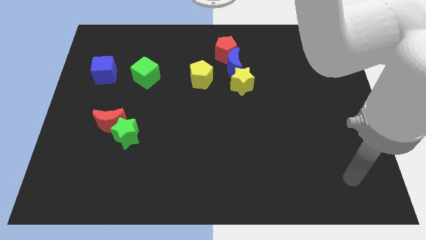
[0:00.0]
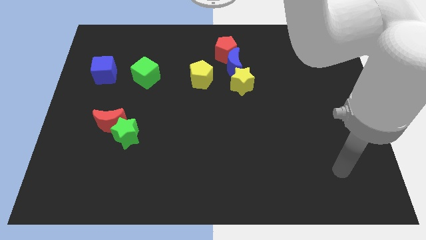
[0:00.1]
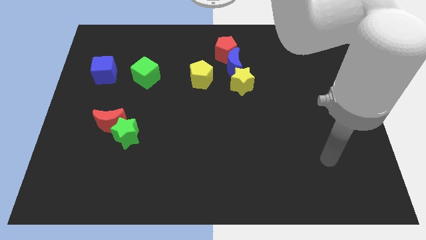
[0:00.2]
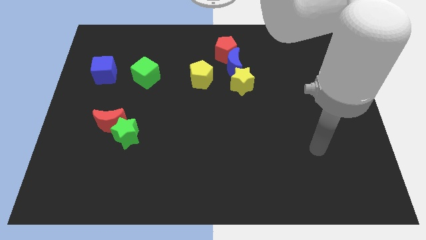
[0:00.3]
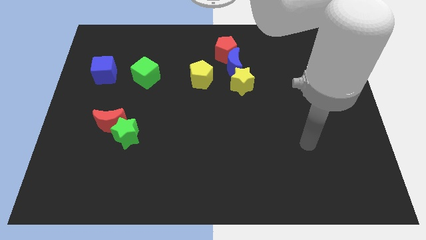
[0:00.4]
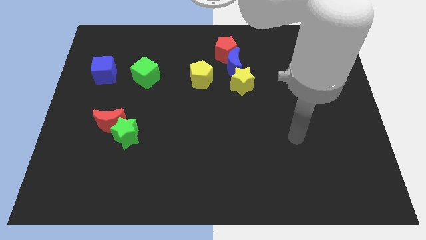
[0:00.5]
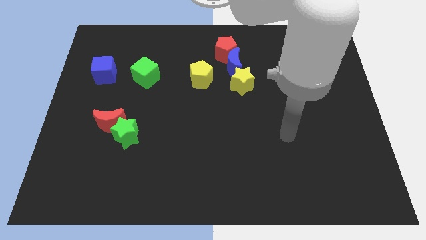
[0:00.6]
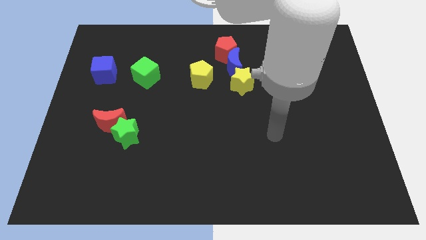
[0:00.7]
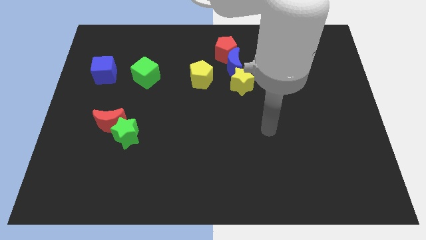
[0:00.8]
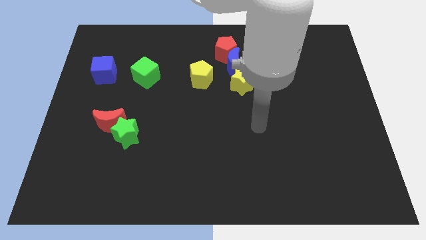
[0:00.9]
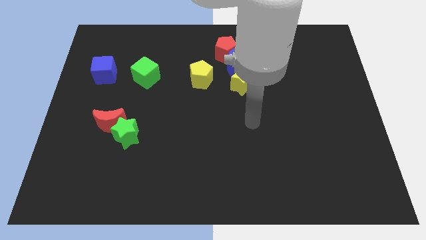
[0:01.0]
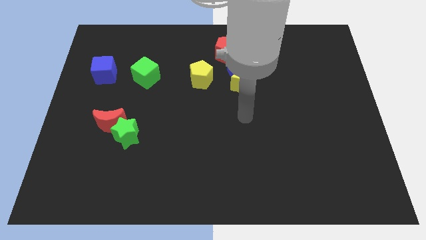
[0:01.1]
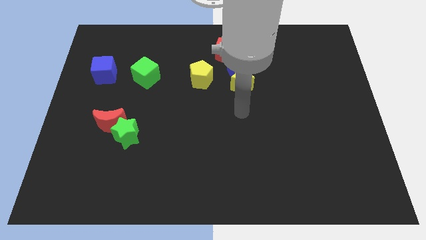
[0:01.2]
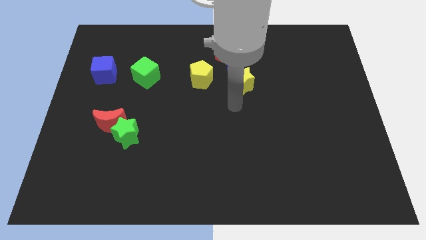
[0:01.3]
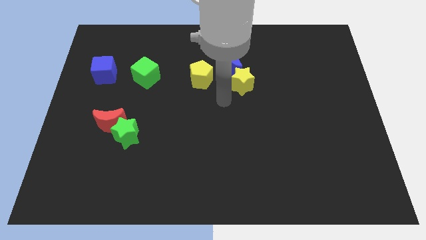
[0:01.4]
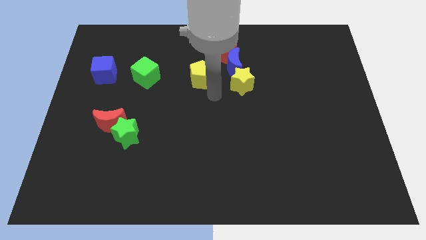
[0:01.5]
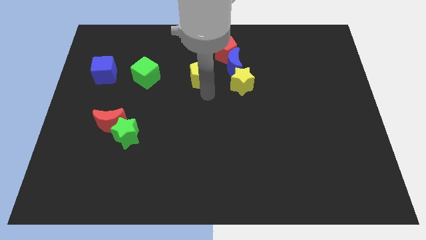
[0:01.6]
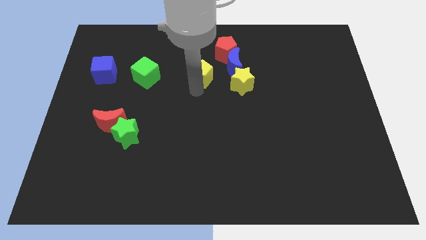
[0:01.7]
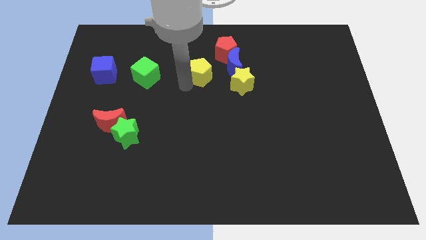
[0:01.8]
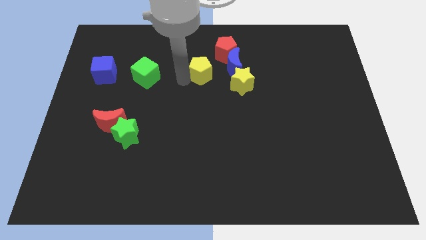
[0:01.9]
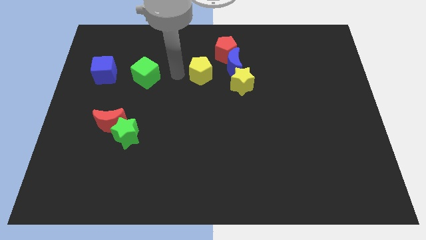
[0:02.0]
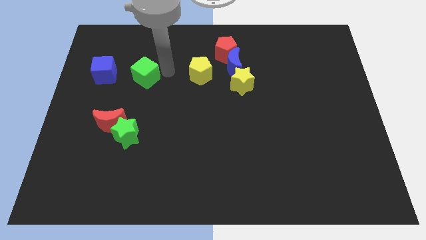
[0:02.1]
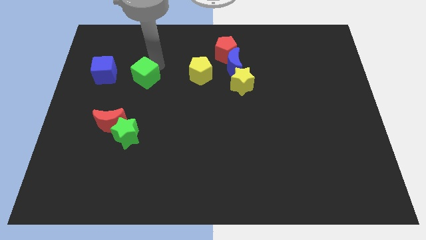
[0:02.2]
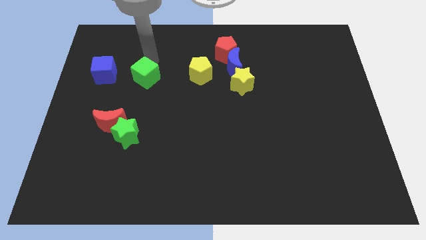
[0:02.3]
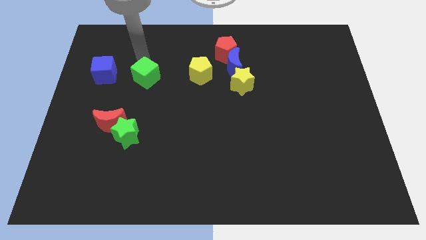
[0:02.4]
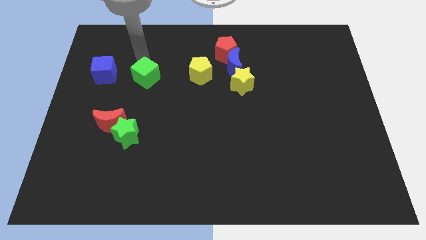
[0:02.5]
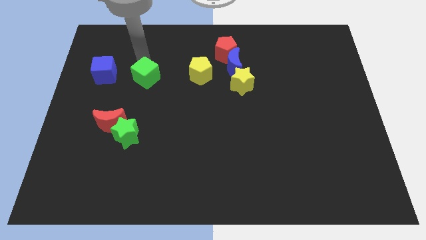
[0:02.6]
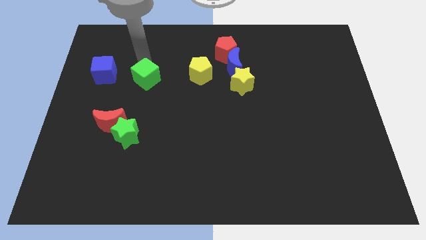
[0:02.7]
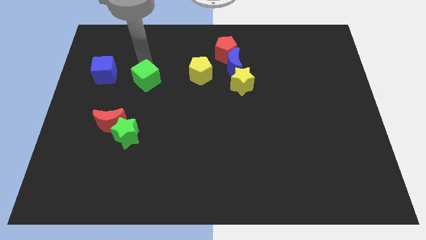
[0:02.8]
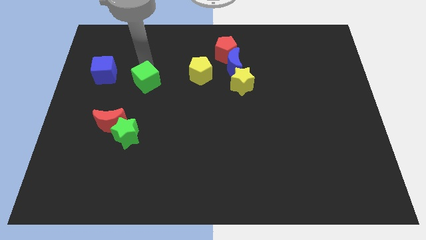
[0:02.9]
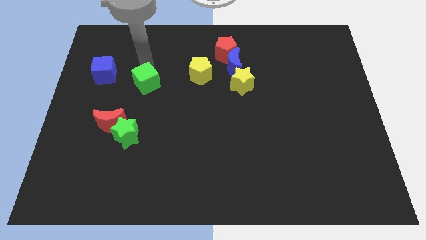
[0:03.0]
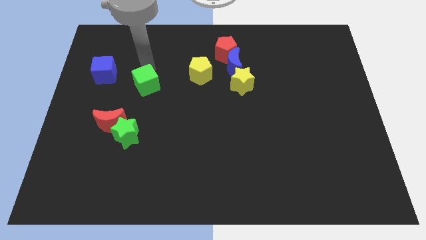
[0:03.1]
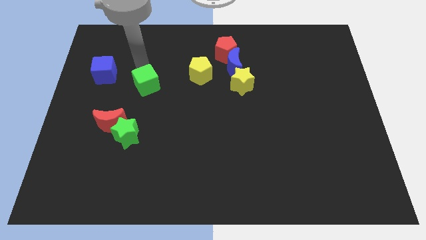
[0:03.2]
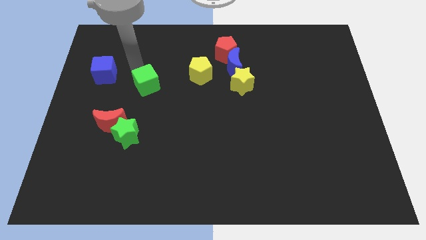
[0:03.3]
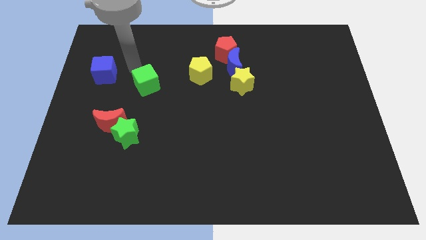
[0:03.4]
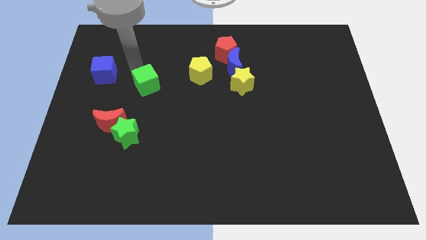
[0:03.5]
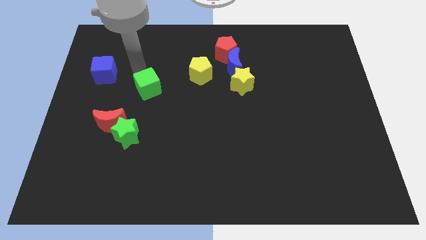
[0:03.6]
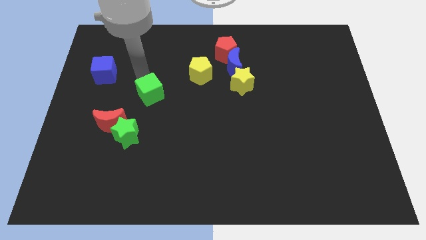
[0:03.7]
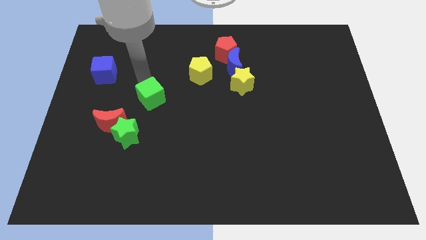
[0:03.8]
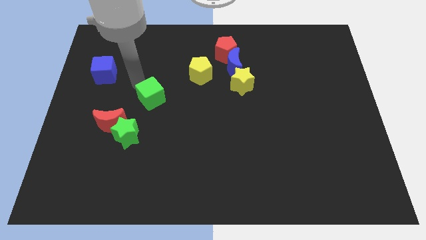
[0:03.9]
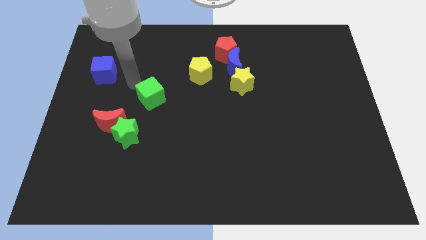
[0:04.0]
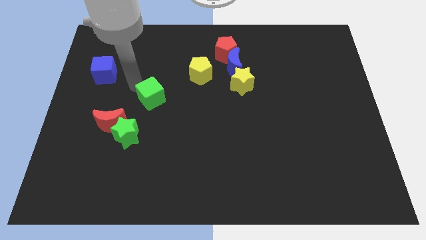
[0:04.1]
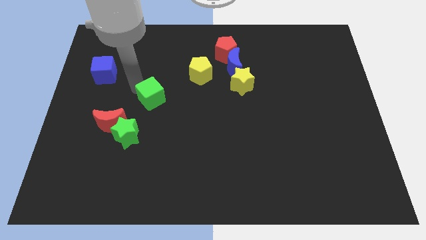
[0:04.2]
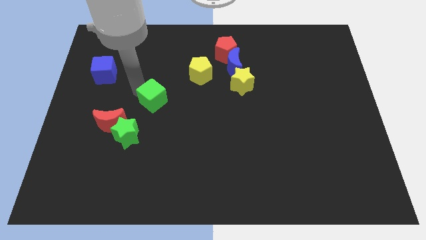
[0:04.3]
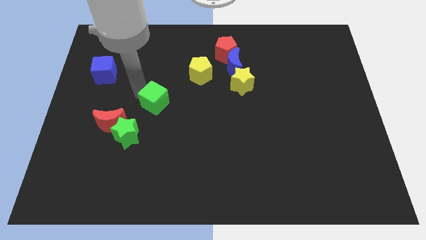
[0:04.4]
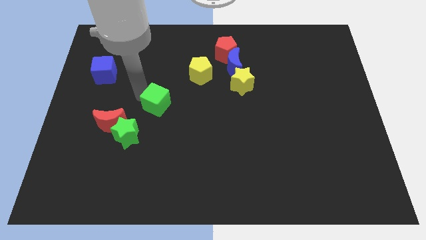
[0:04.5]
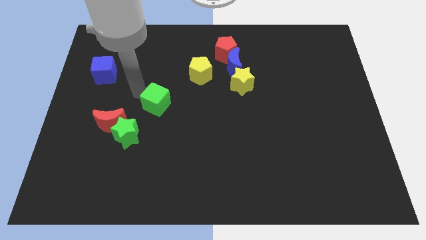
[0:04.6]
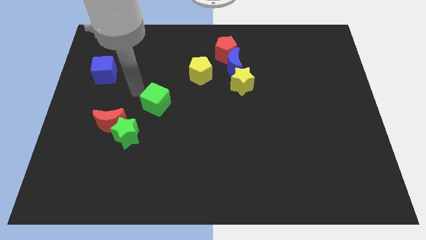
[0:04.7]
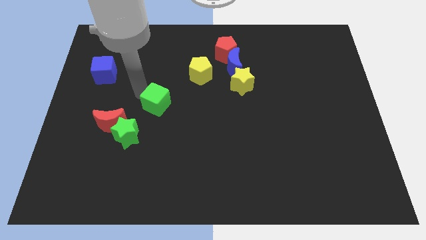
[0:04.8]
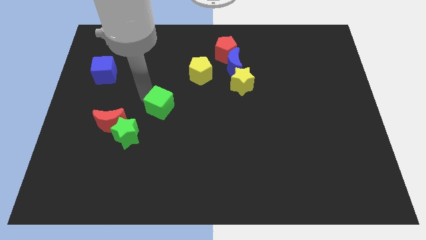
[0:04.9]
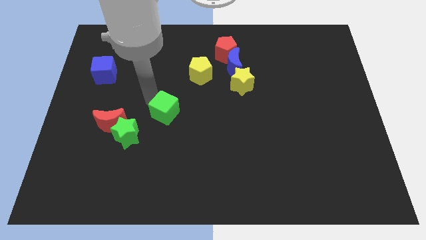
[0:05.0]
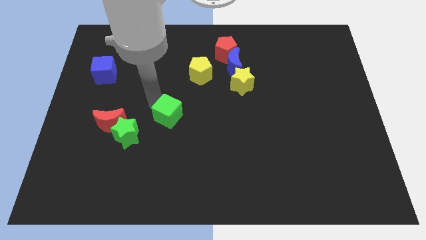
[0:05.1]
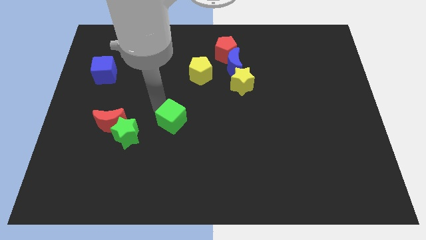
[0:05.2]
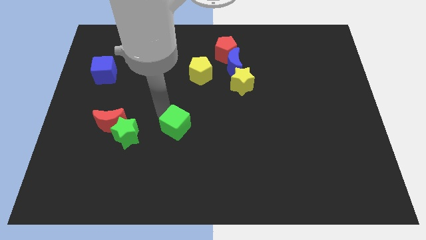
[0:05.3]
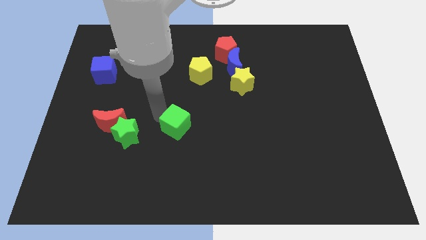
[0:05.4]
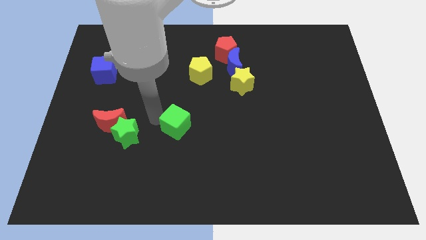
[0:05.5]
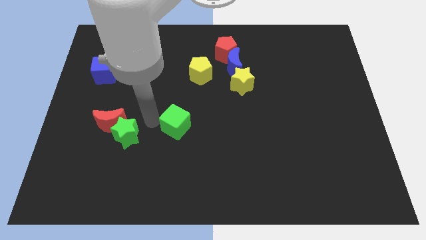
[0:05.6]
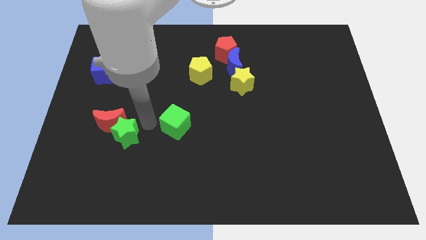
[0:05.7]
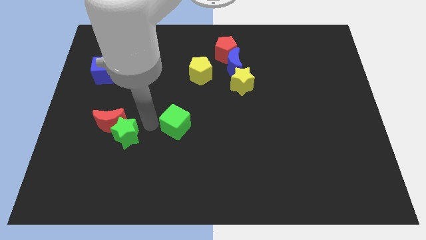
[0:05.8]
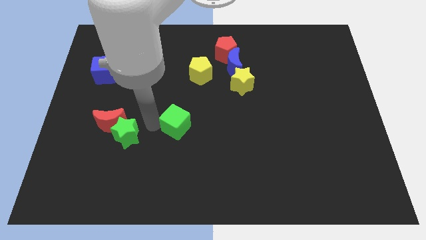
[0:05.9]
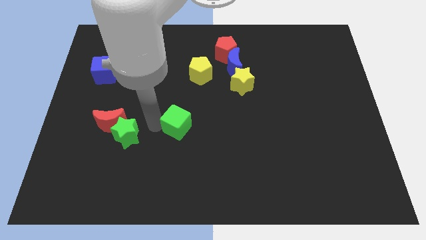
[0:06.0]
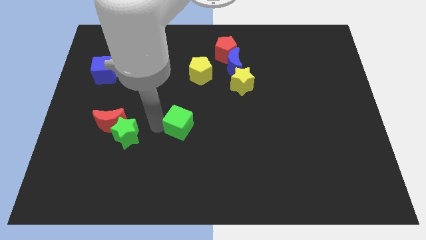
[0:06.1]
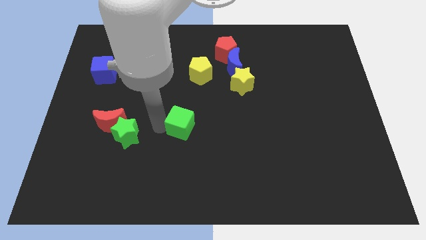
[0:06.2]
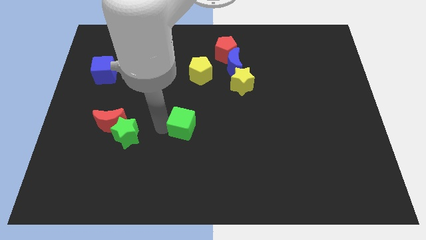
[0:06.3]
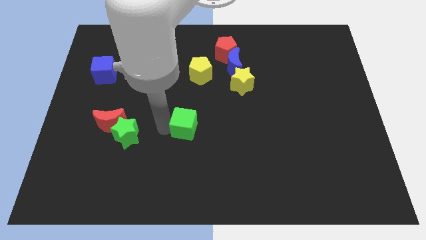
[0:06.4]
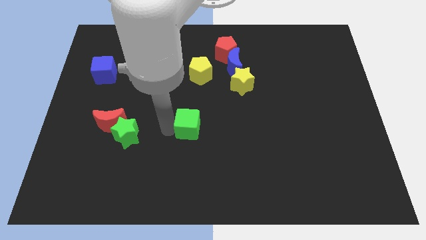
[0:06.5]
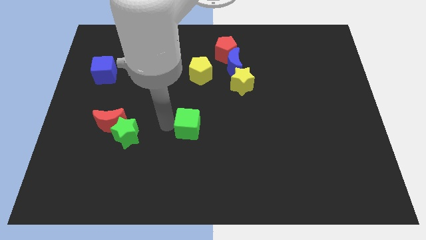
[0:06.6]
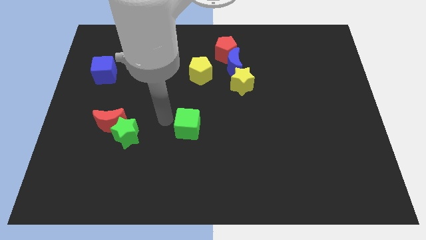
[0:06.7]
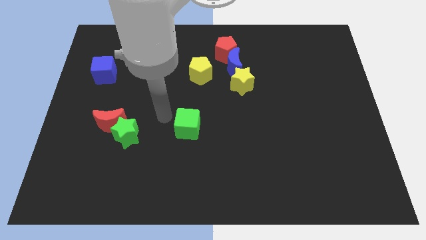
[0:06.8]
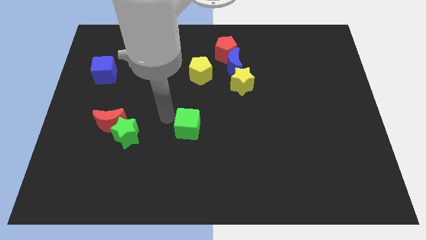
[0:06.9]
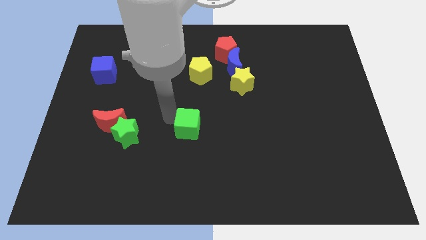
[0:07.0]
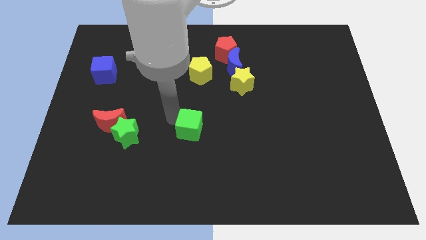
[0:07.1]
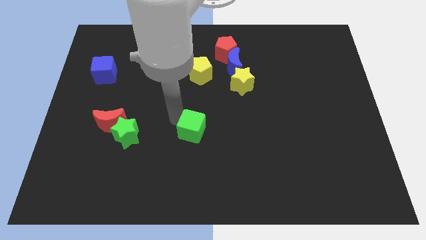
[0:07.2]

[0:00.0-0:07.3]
move the green cube diagonally down and to the right

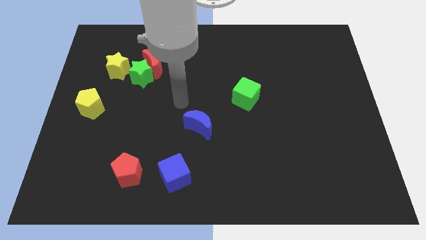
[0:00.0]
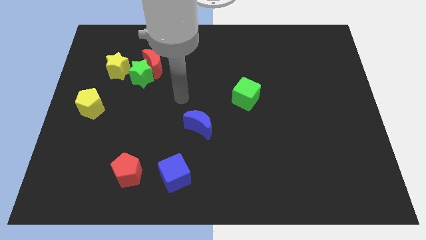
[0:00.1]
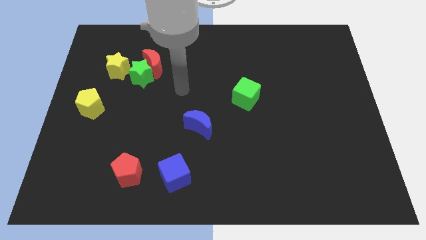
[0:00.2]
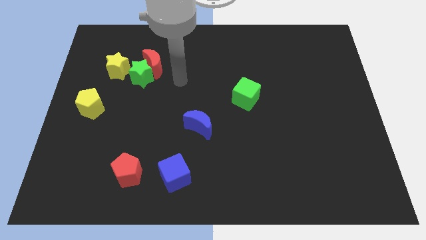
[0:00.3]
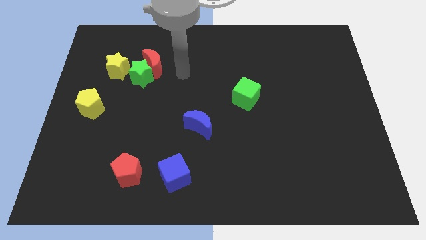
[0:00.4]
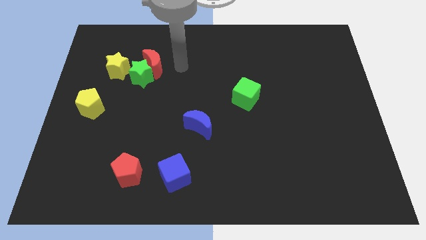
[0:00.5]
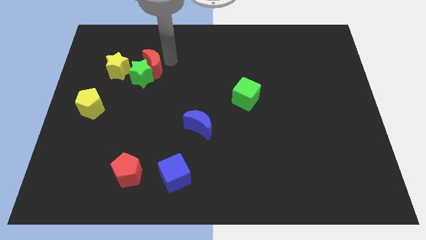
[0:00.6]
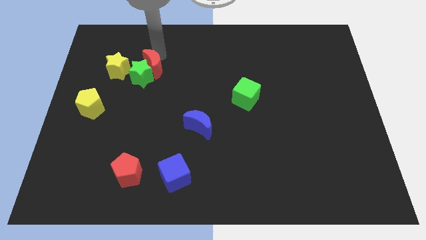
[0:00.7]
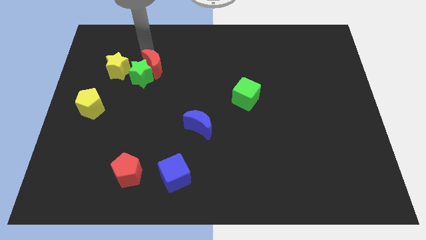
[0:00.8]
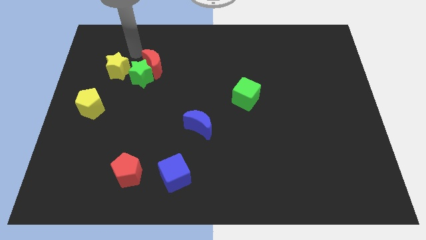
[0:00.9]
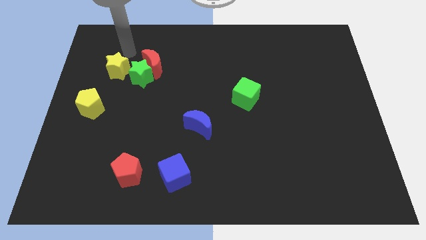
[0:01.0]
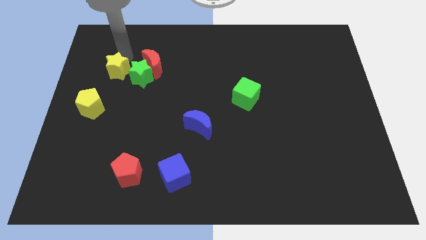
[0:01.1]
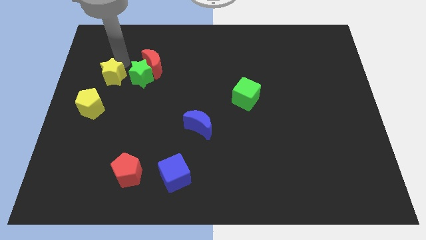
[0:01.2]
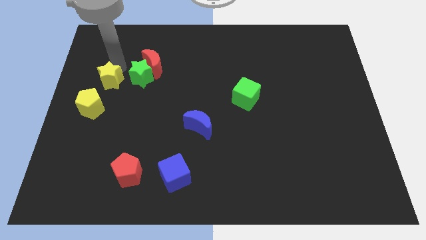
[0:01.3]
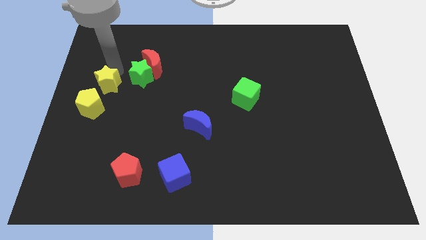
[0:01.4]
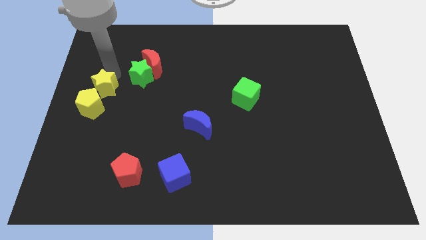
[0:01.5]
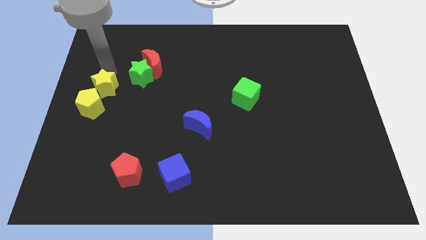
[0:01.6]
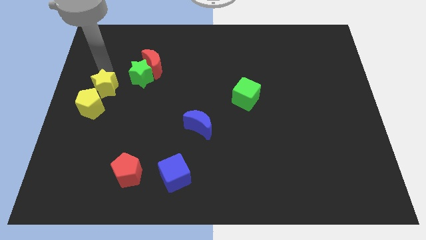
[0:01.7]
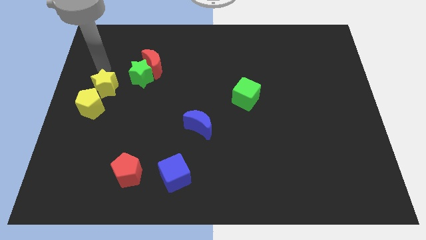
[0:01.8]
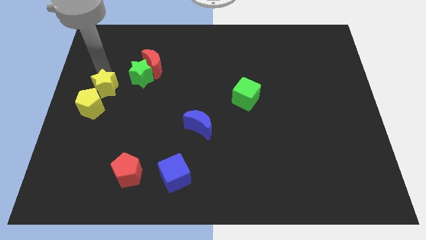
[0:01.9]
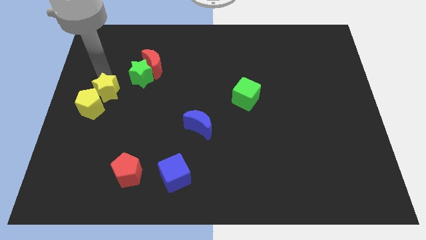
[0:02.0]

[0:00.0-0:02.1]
move the yellow star a bit down
